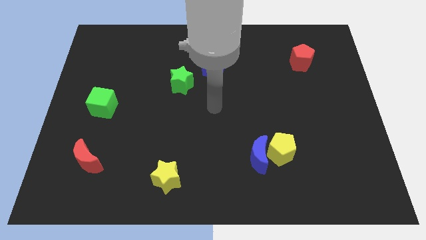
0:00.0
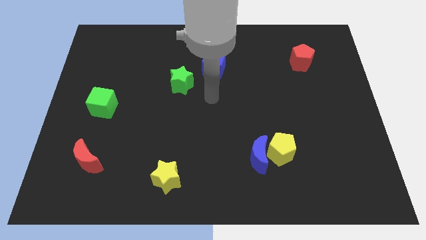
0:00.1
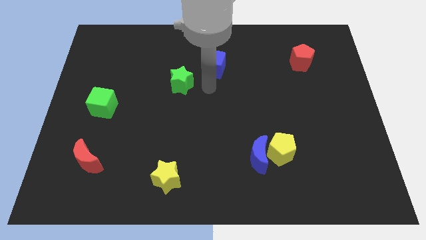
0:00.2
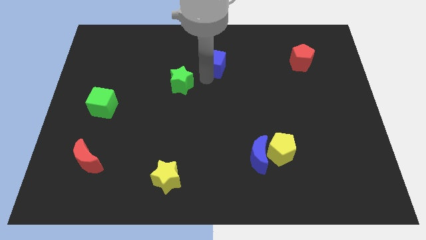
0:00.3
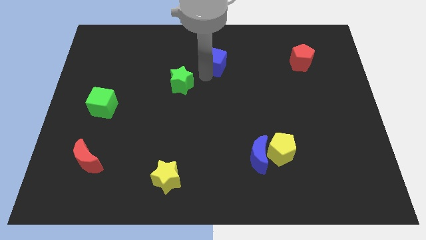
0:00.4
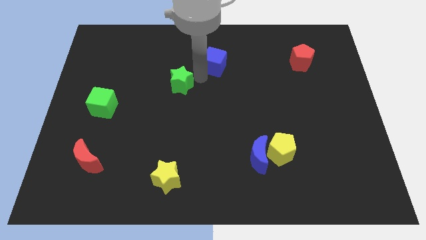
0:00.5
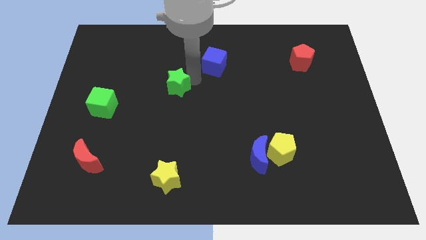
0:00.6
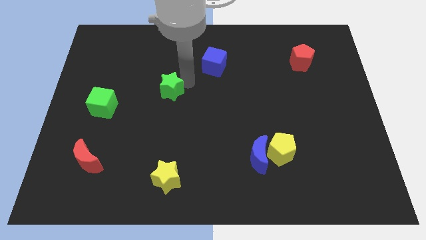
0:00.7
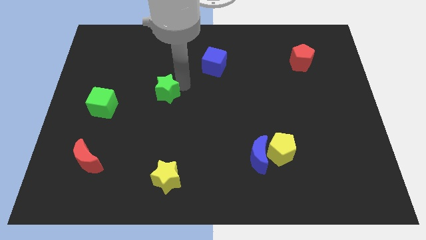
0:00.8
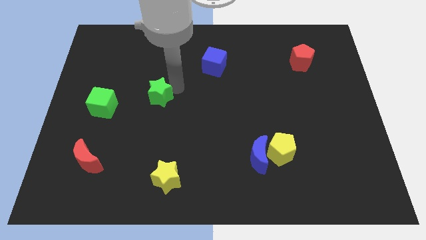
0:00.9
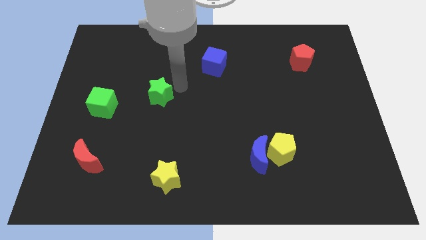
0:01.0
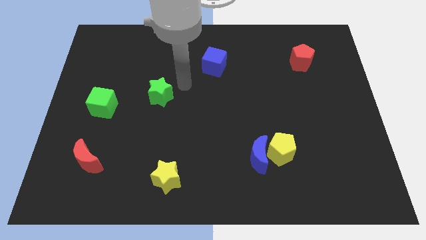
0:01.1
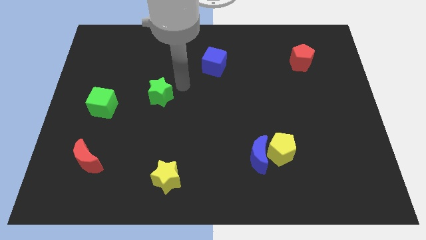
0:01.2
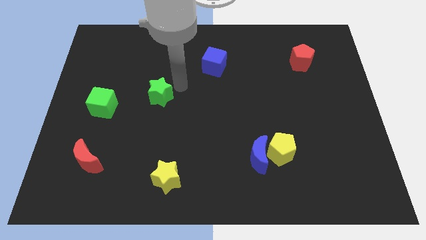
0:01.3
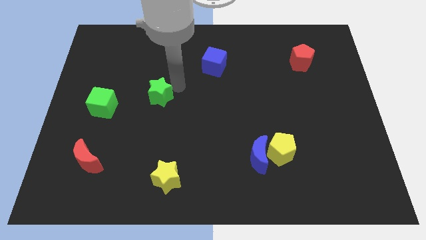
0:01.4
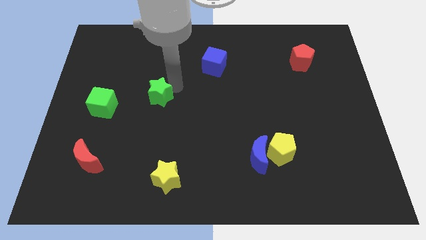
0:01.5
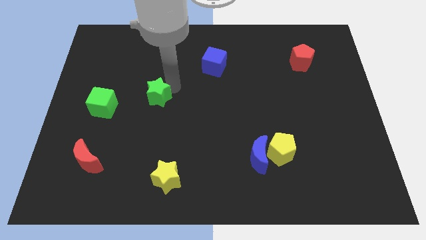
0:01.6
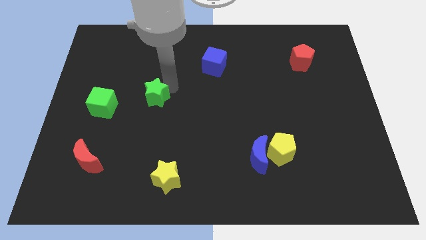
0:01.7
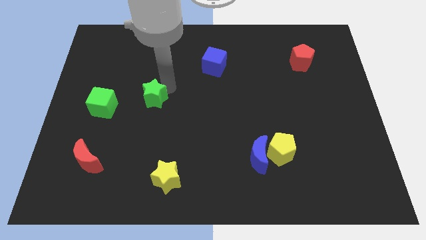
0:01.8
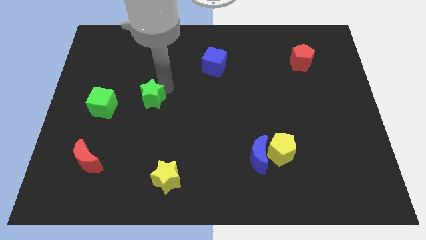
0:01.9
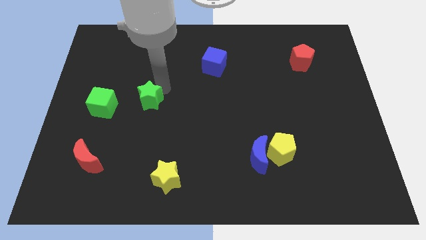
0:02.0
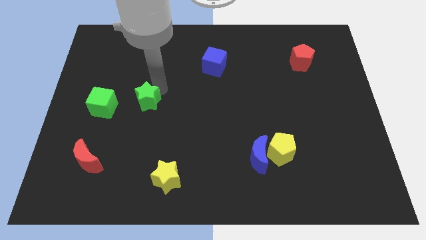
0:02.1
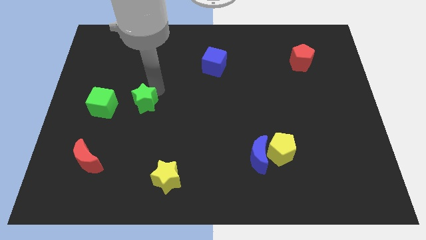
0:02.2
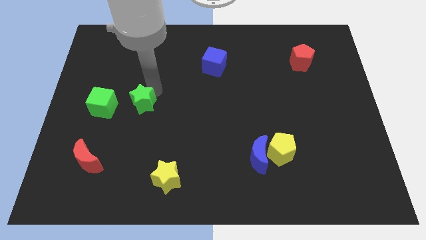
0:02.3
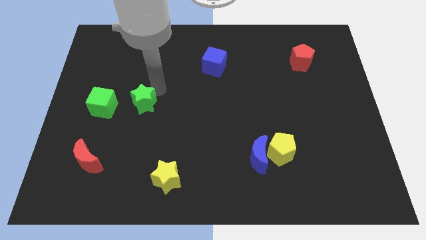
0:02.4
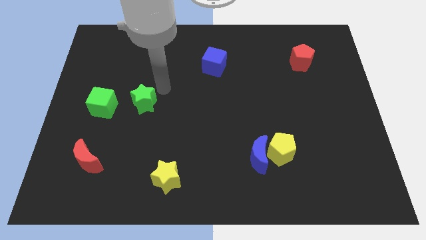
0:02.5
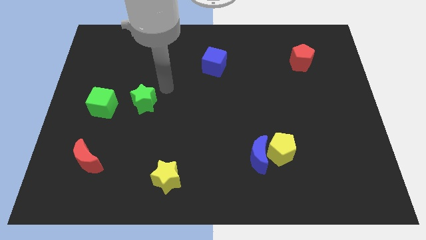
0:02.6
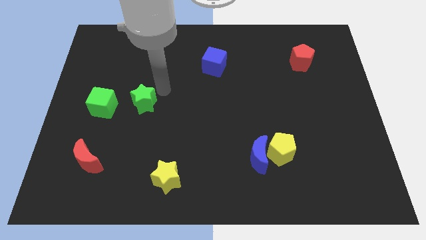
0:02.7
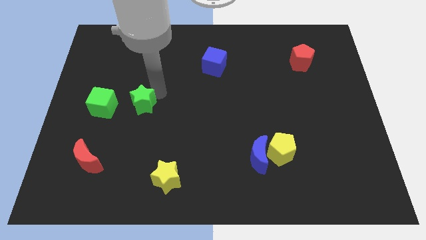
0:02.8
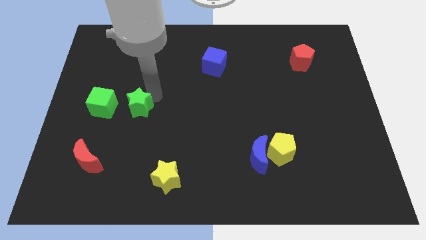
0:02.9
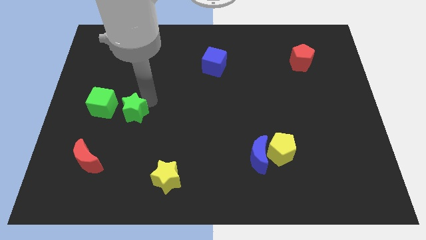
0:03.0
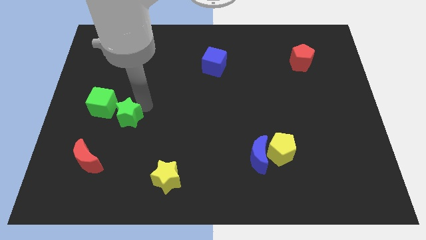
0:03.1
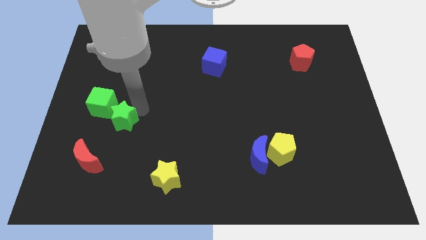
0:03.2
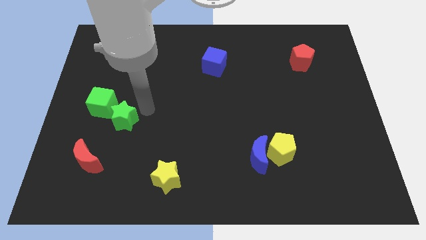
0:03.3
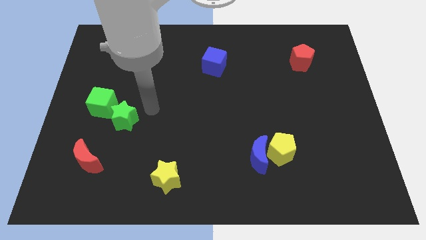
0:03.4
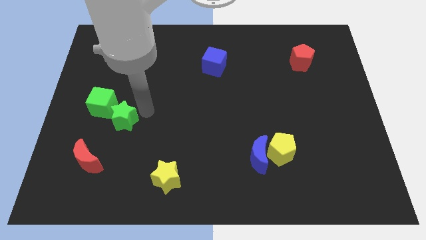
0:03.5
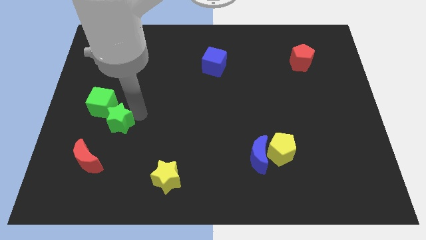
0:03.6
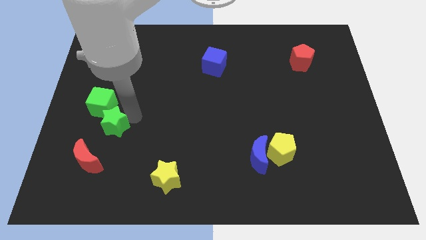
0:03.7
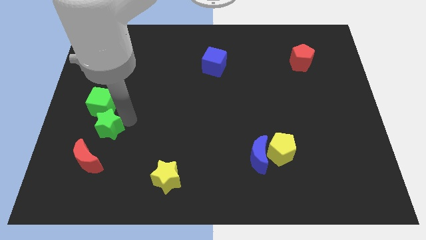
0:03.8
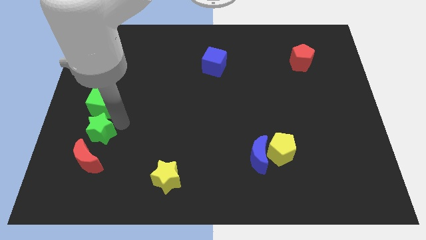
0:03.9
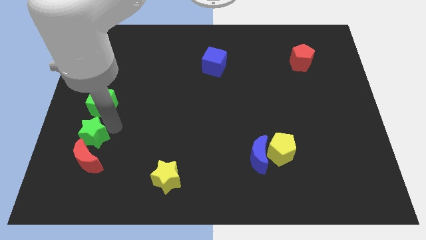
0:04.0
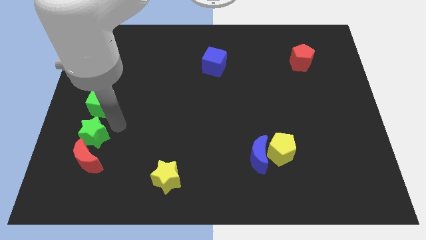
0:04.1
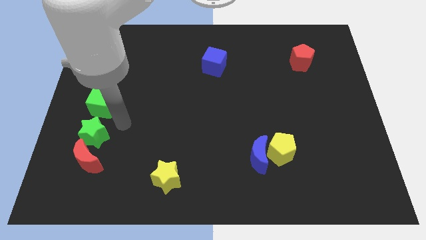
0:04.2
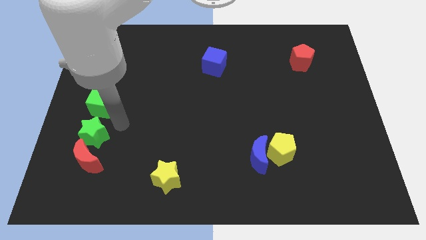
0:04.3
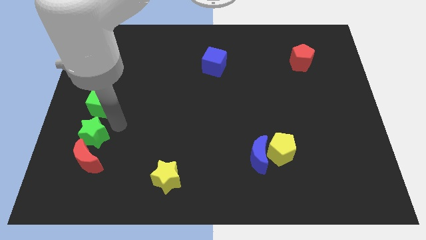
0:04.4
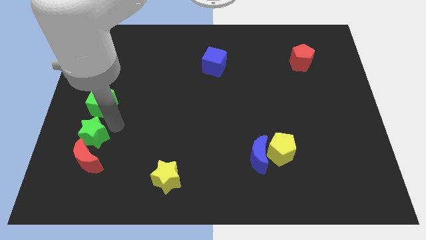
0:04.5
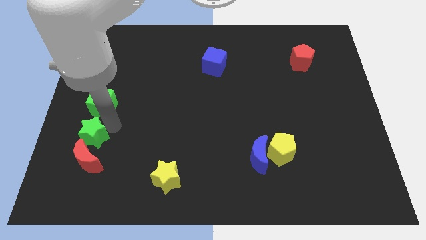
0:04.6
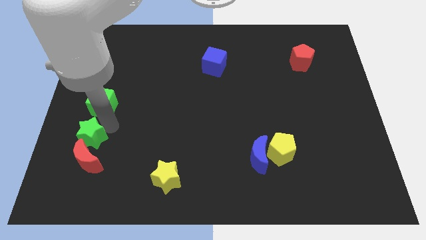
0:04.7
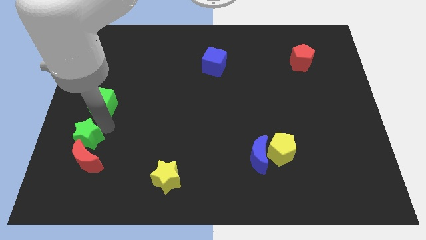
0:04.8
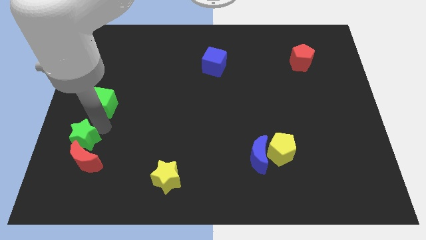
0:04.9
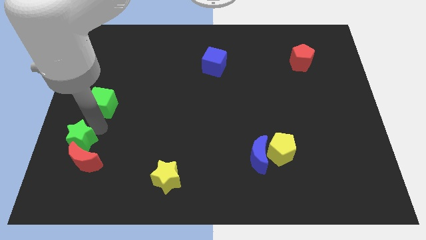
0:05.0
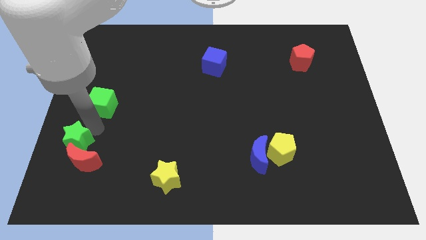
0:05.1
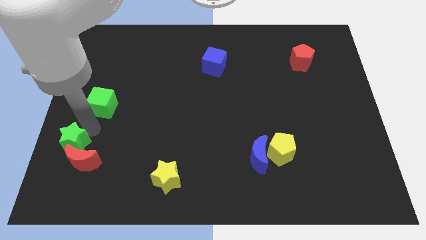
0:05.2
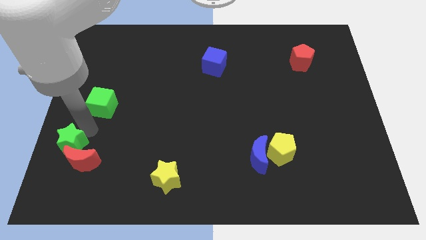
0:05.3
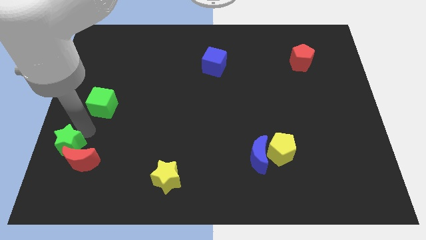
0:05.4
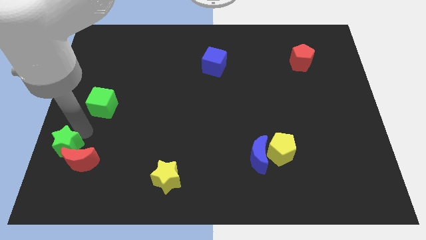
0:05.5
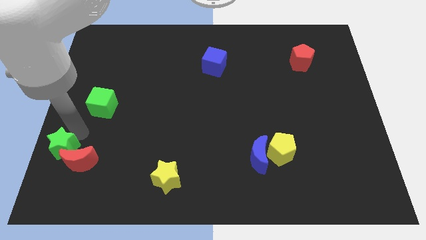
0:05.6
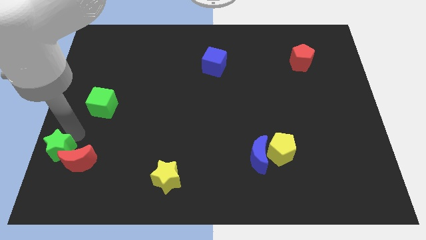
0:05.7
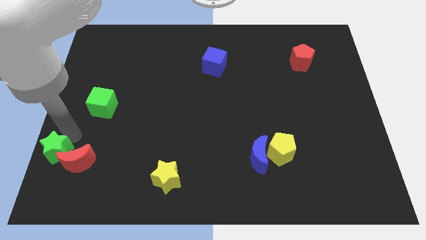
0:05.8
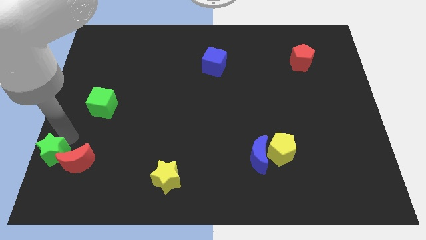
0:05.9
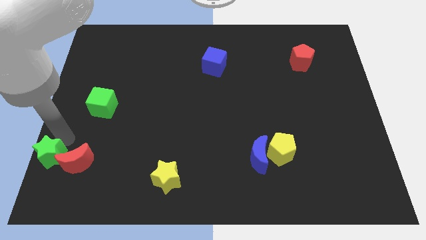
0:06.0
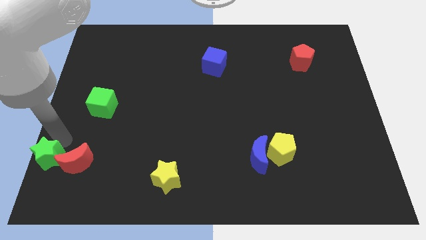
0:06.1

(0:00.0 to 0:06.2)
move the green star to the bottom left corner

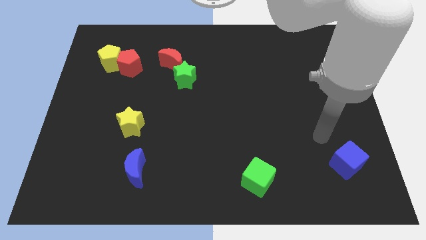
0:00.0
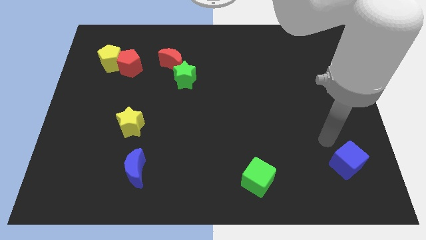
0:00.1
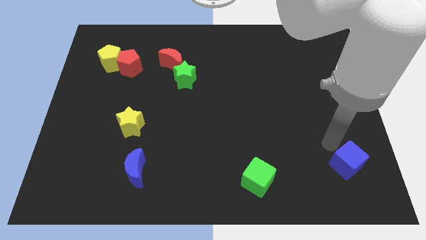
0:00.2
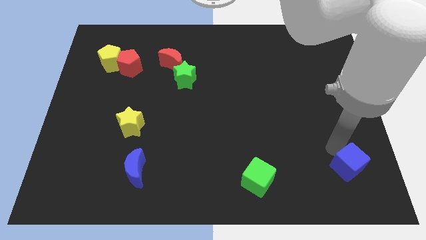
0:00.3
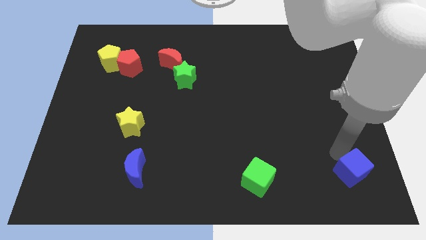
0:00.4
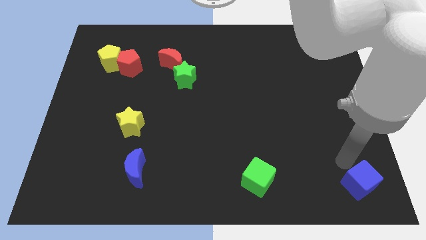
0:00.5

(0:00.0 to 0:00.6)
put the blue cube to the bottom right corner
